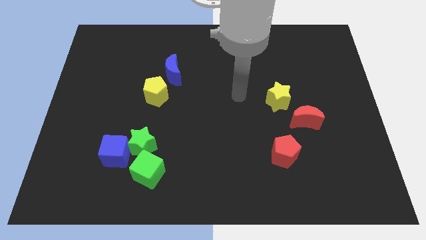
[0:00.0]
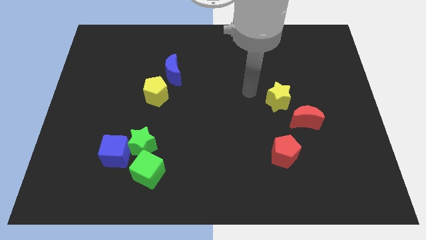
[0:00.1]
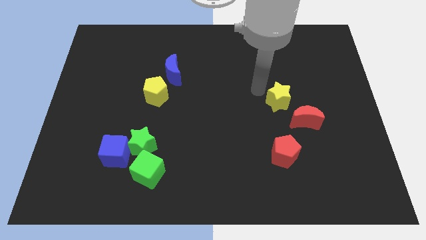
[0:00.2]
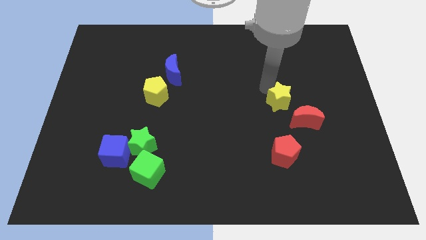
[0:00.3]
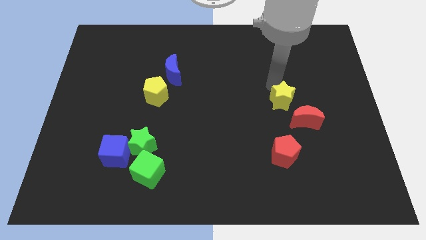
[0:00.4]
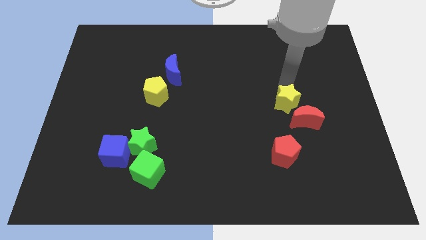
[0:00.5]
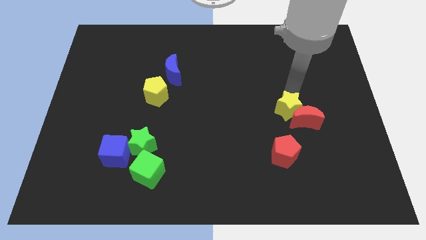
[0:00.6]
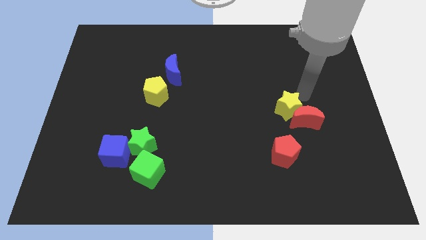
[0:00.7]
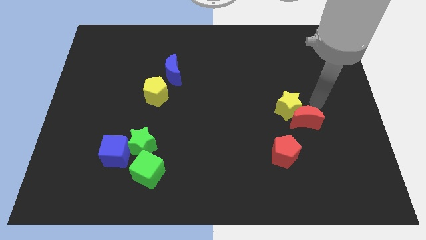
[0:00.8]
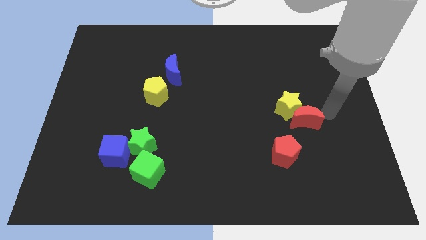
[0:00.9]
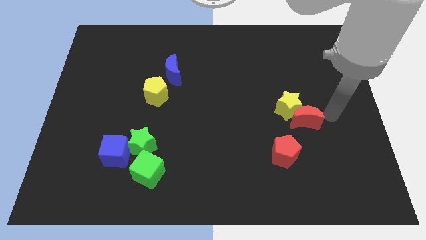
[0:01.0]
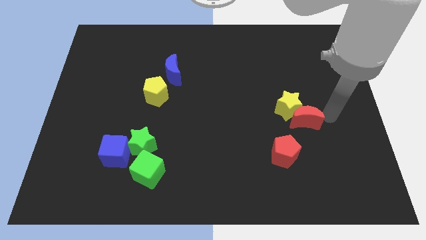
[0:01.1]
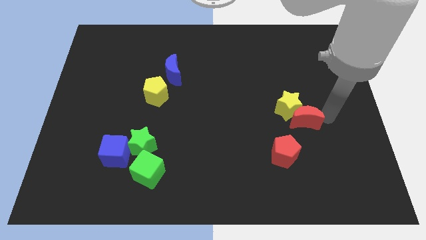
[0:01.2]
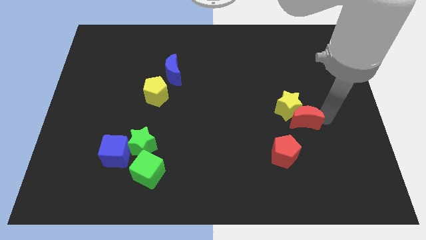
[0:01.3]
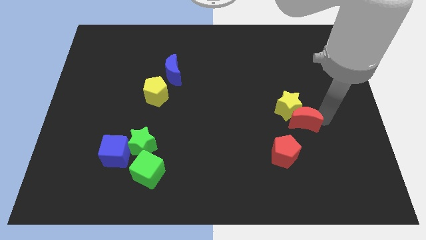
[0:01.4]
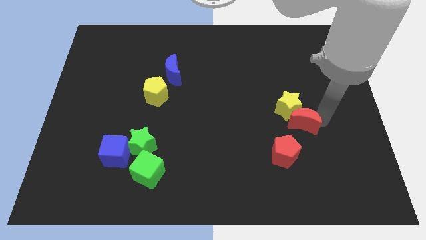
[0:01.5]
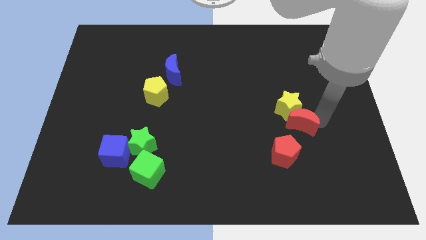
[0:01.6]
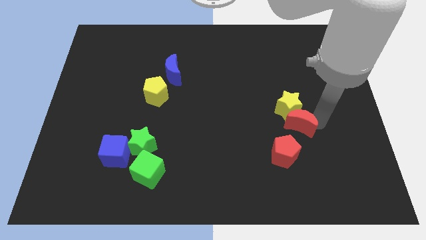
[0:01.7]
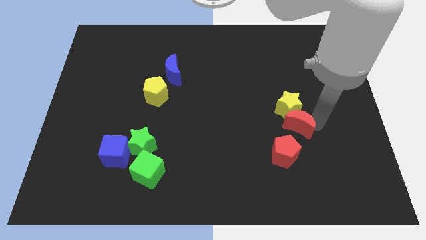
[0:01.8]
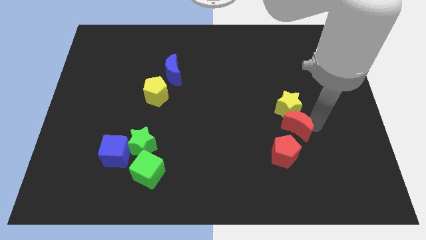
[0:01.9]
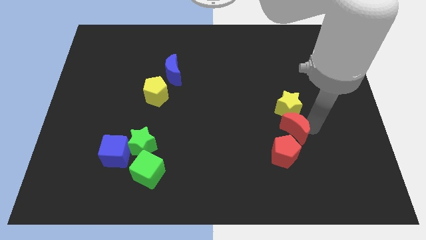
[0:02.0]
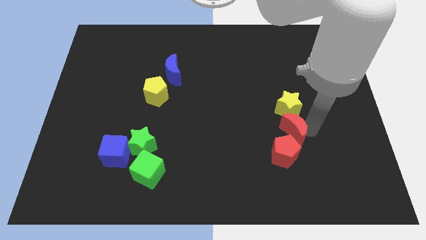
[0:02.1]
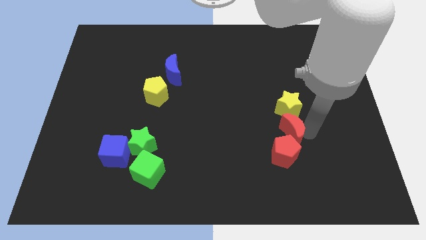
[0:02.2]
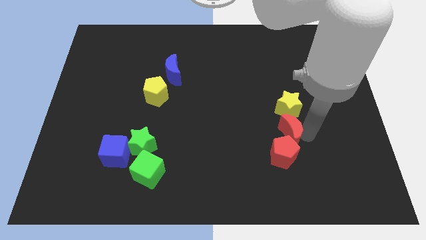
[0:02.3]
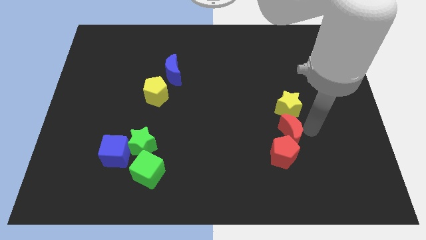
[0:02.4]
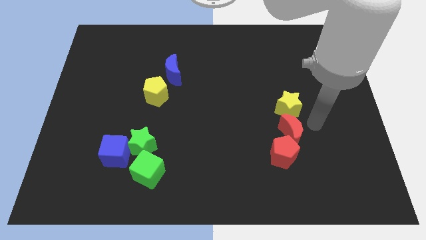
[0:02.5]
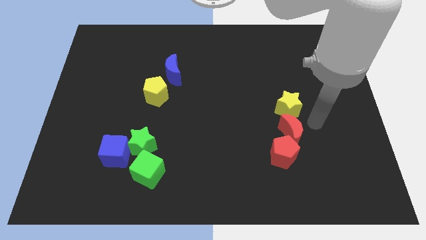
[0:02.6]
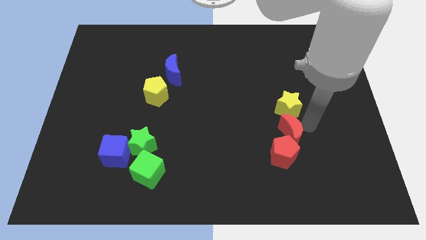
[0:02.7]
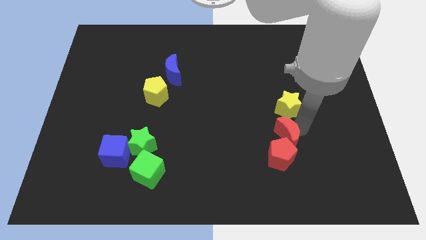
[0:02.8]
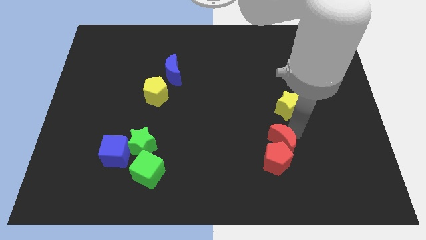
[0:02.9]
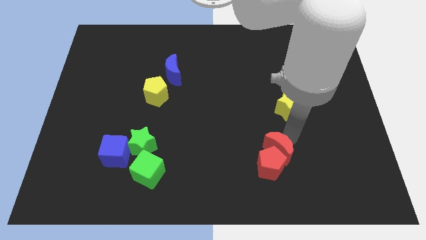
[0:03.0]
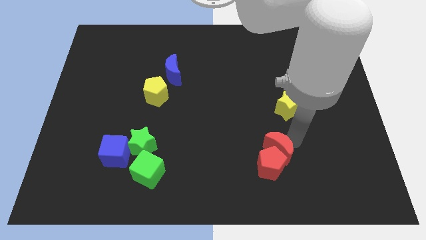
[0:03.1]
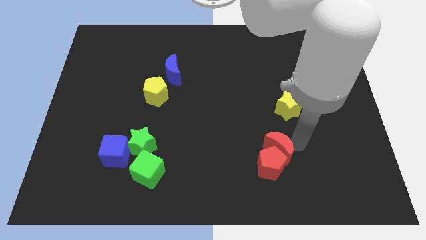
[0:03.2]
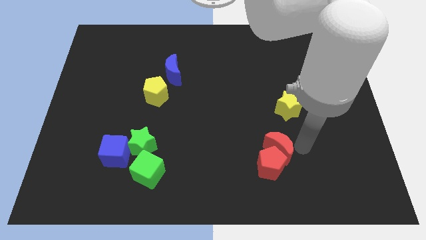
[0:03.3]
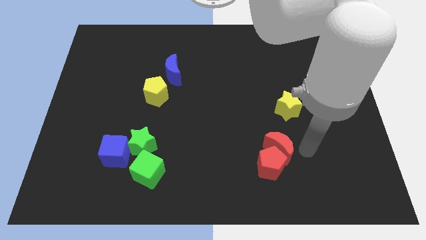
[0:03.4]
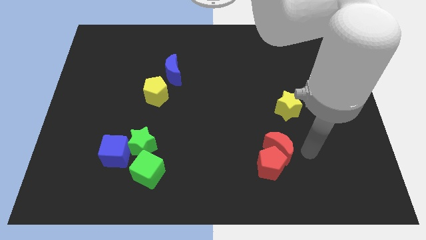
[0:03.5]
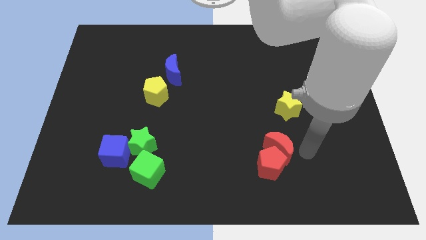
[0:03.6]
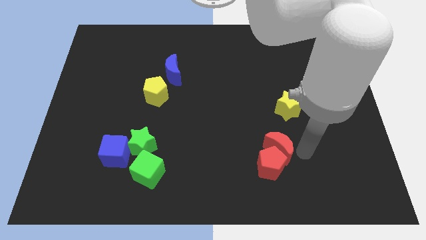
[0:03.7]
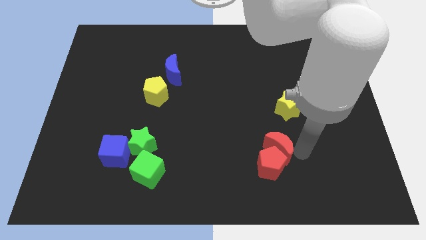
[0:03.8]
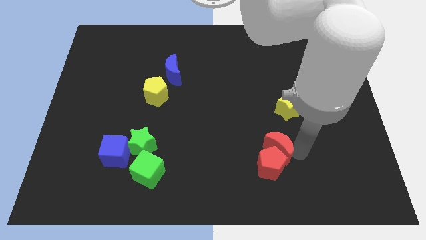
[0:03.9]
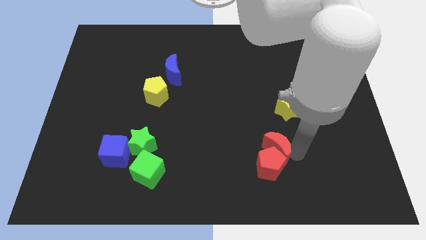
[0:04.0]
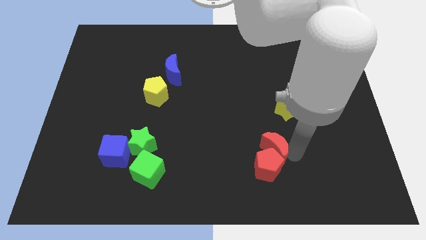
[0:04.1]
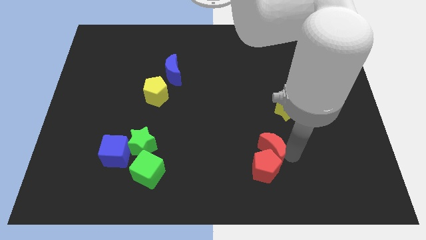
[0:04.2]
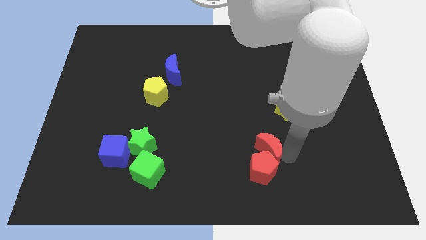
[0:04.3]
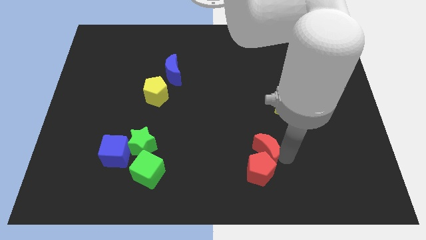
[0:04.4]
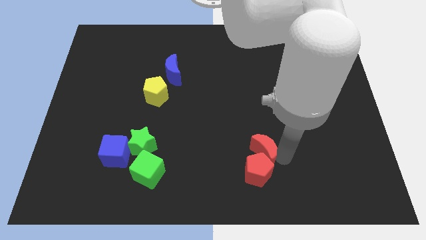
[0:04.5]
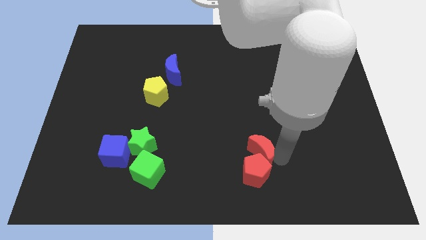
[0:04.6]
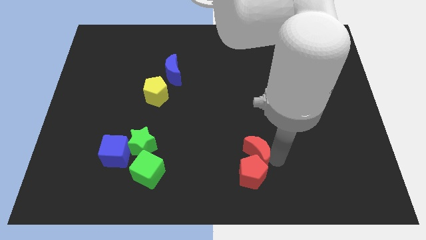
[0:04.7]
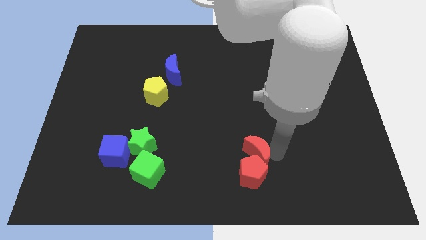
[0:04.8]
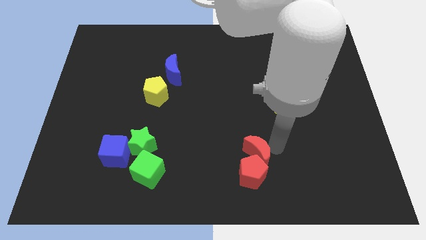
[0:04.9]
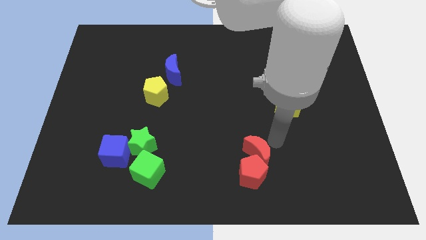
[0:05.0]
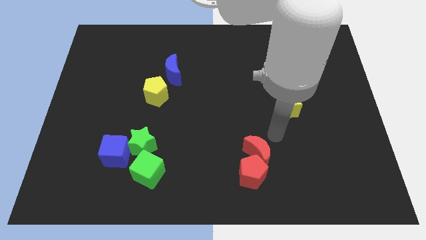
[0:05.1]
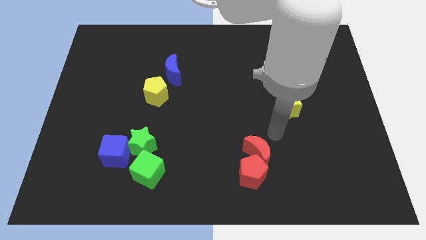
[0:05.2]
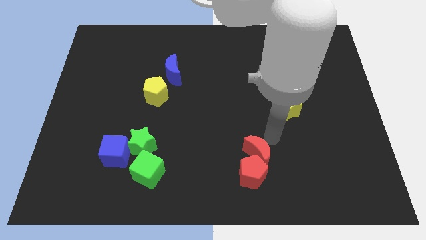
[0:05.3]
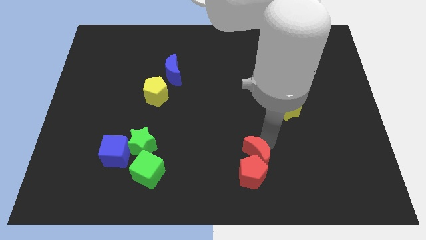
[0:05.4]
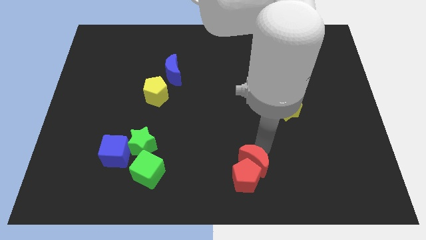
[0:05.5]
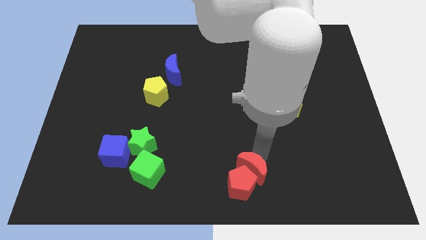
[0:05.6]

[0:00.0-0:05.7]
push the red moon to the bottom
